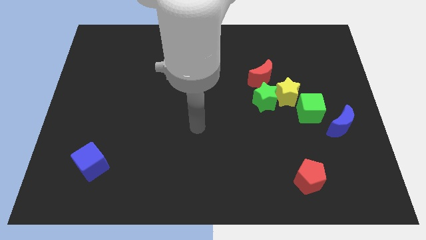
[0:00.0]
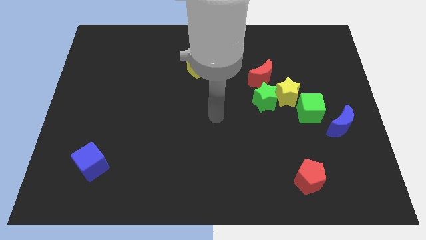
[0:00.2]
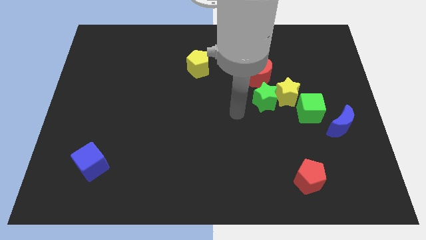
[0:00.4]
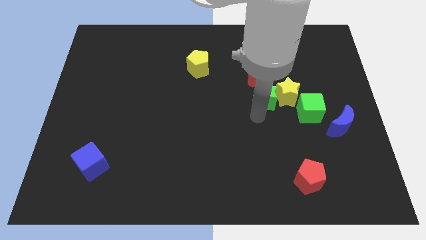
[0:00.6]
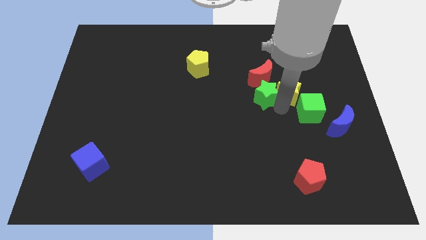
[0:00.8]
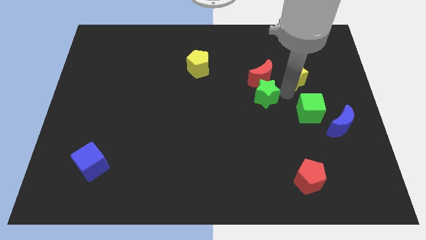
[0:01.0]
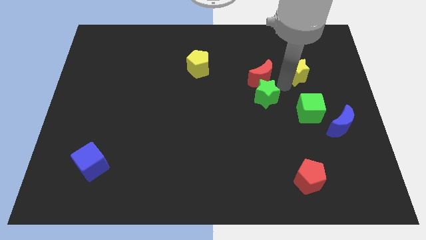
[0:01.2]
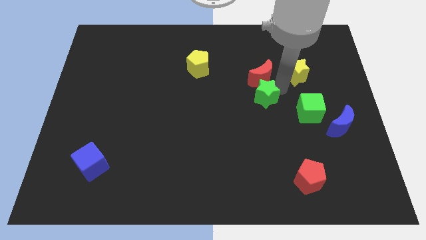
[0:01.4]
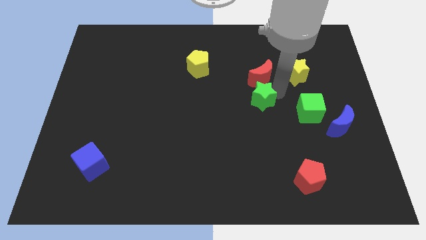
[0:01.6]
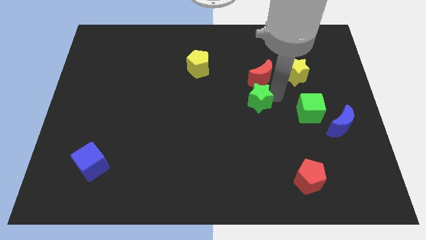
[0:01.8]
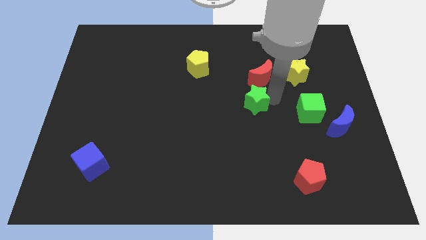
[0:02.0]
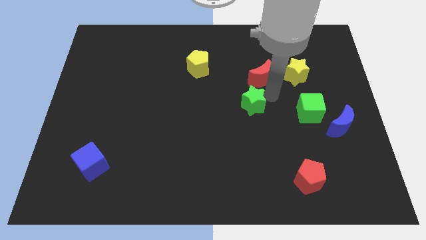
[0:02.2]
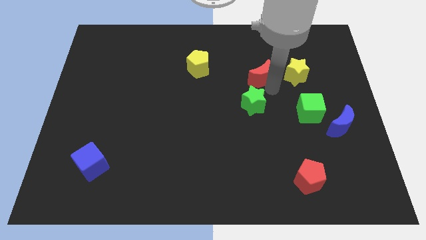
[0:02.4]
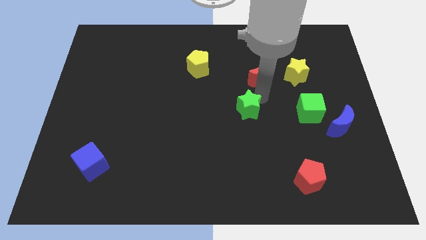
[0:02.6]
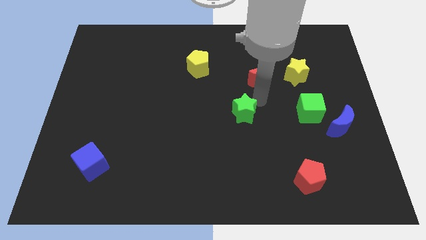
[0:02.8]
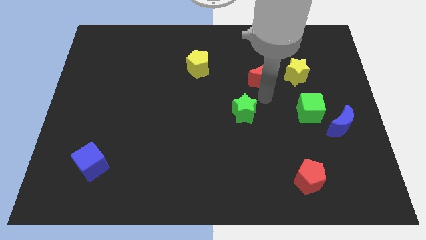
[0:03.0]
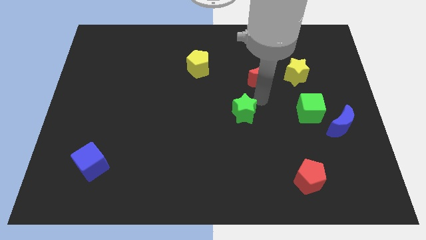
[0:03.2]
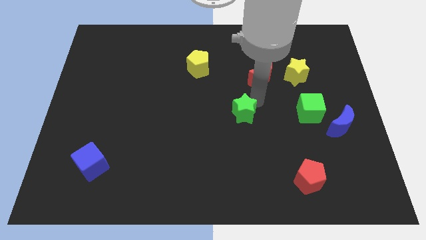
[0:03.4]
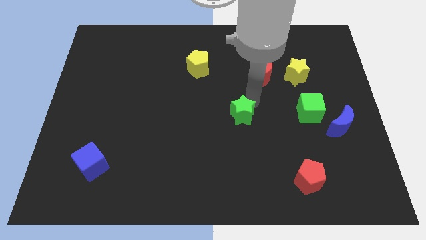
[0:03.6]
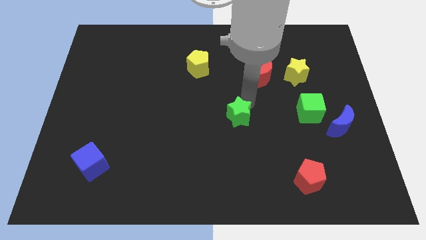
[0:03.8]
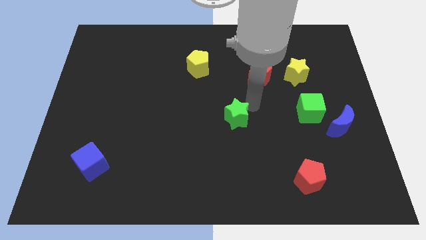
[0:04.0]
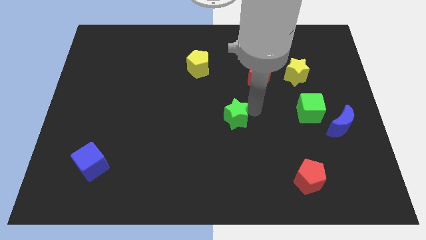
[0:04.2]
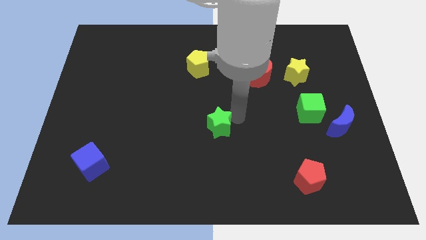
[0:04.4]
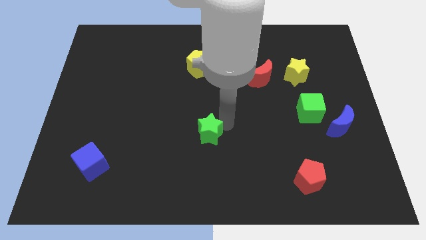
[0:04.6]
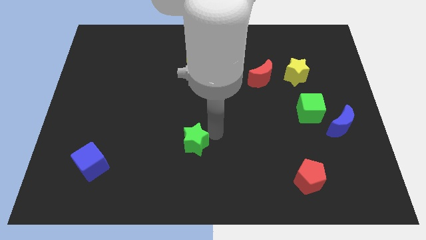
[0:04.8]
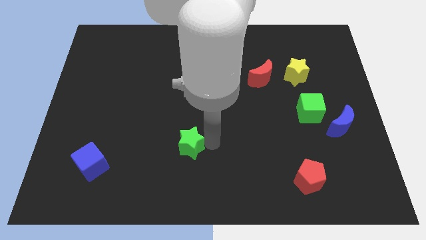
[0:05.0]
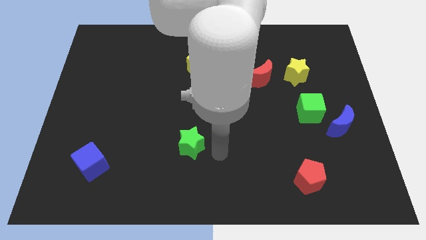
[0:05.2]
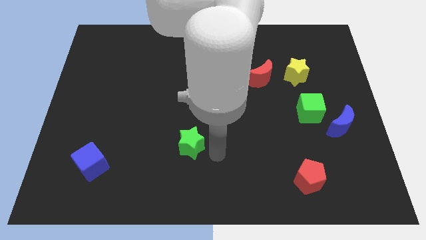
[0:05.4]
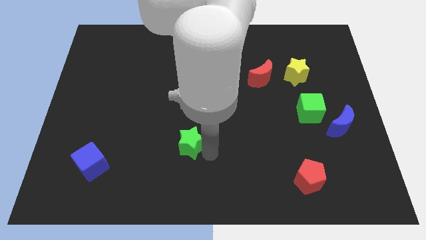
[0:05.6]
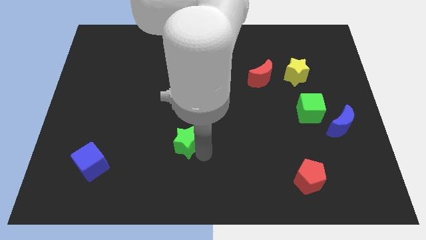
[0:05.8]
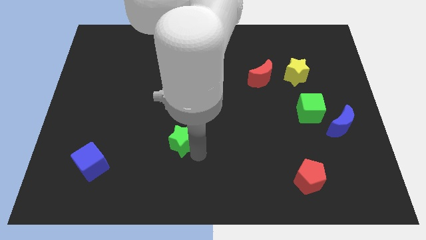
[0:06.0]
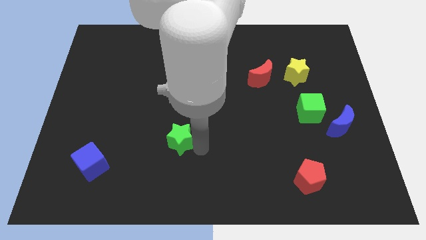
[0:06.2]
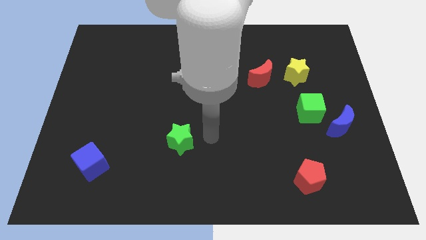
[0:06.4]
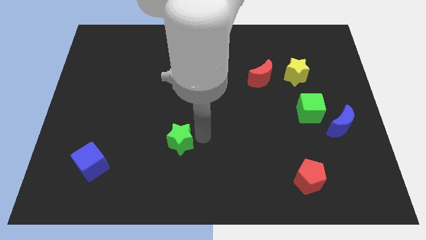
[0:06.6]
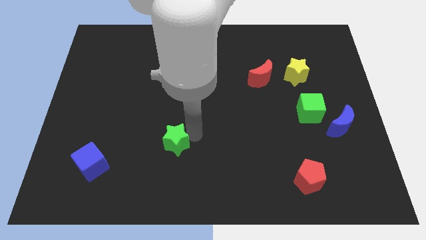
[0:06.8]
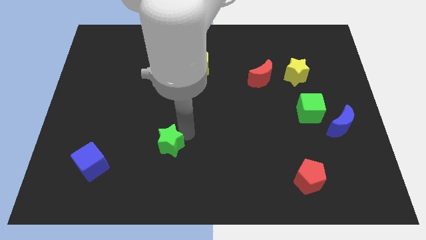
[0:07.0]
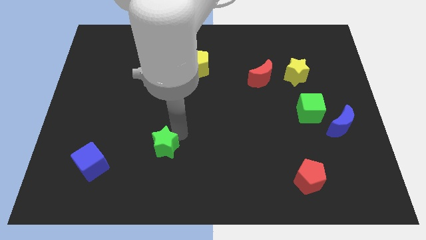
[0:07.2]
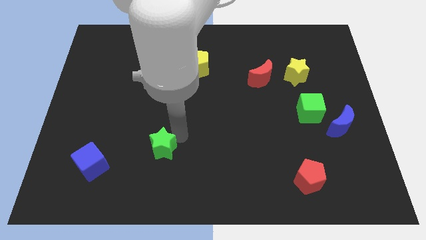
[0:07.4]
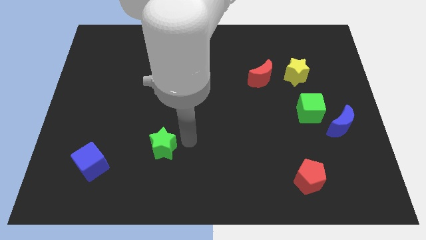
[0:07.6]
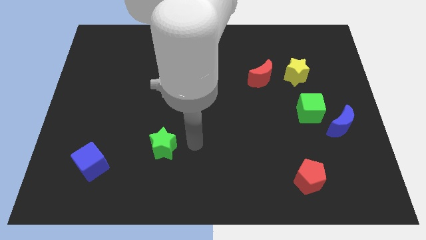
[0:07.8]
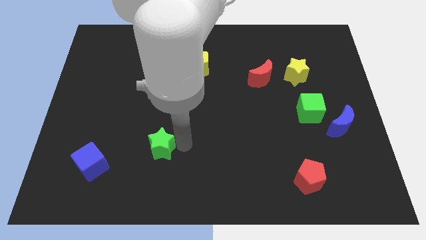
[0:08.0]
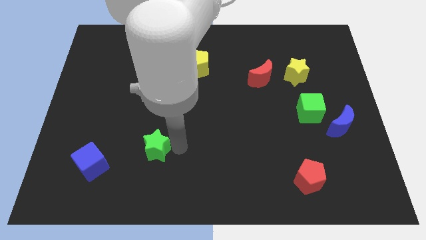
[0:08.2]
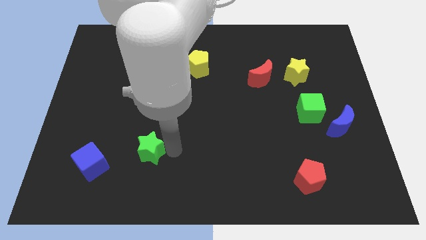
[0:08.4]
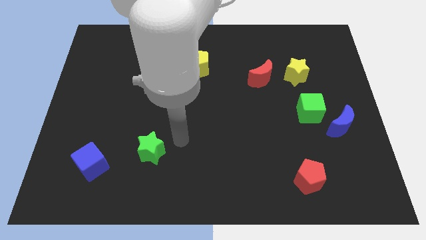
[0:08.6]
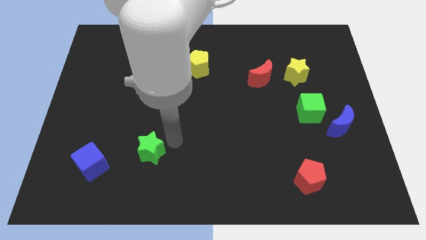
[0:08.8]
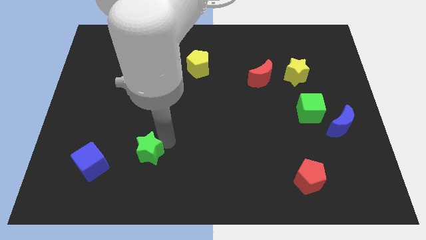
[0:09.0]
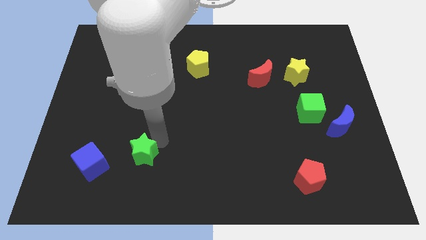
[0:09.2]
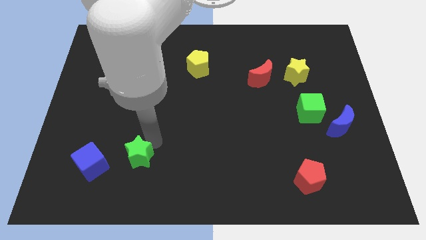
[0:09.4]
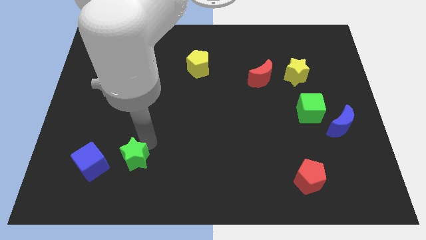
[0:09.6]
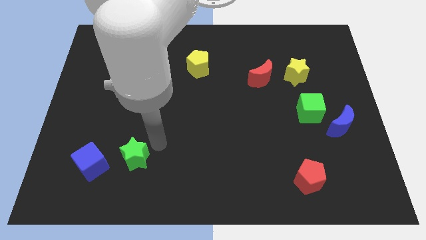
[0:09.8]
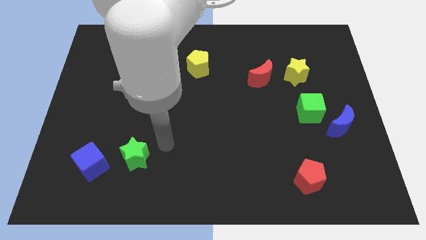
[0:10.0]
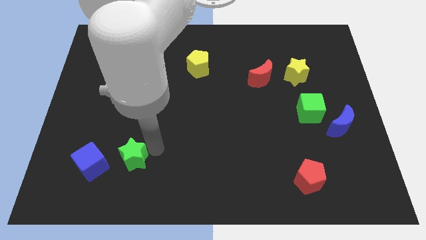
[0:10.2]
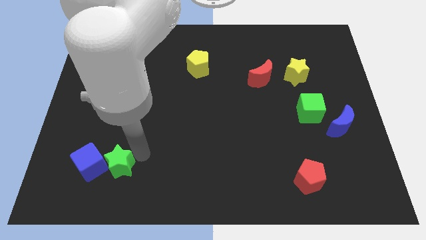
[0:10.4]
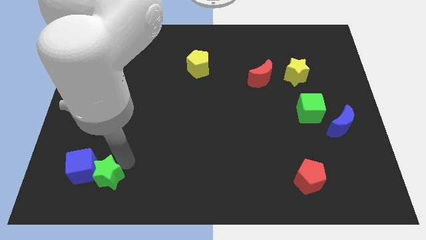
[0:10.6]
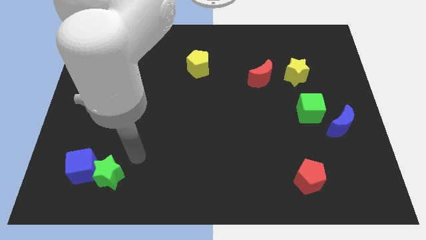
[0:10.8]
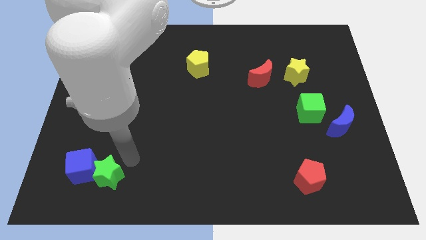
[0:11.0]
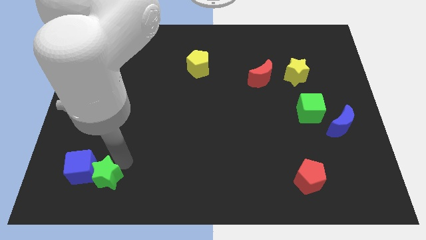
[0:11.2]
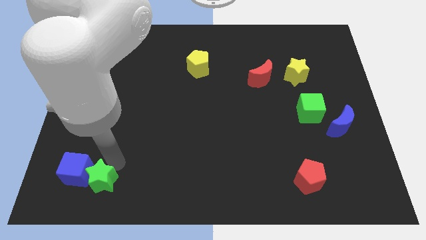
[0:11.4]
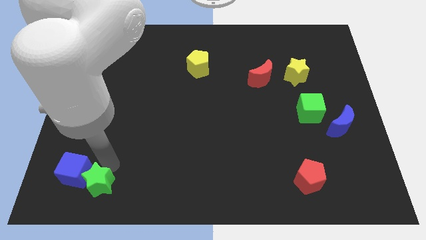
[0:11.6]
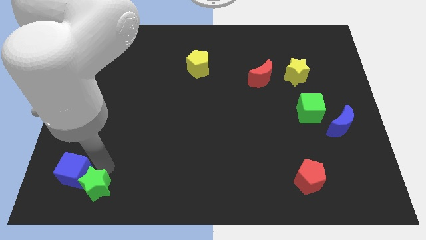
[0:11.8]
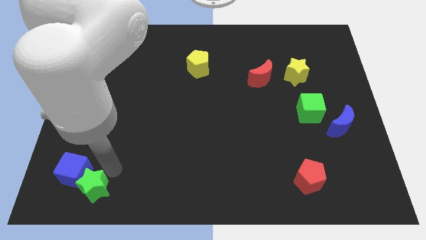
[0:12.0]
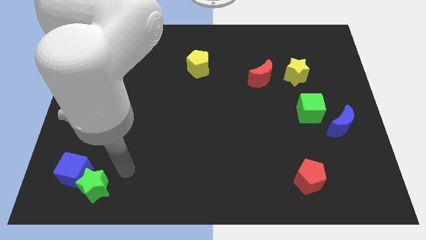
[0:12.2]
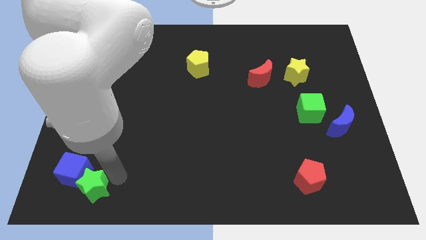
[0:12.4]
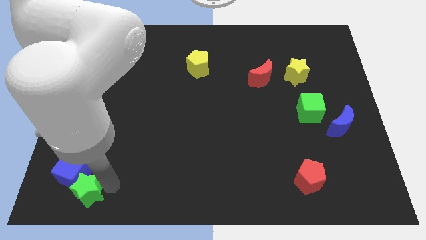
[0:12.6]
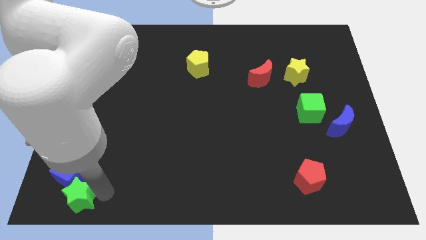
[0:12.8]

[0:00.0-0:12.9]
push the green star to the bottom left corner

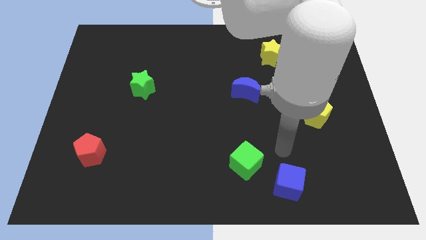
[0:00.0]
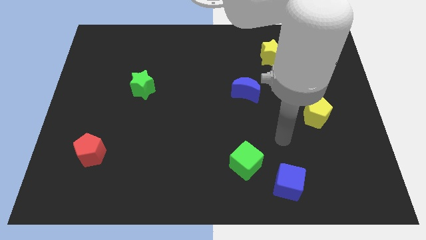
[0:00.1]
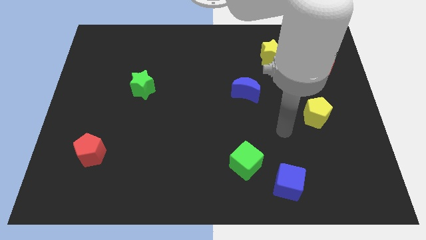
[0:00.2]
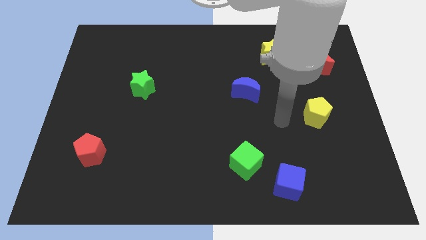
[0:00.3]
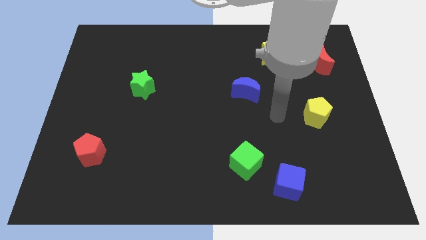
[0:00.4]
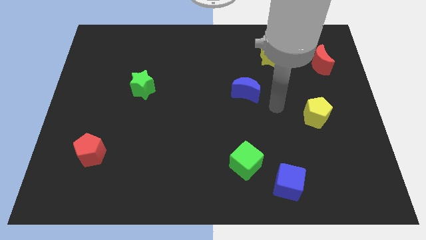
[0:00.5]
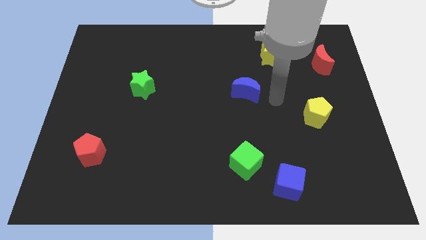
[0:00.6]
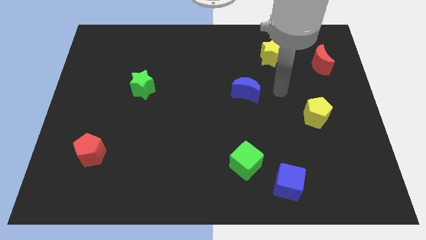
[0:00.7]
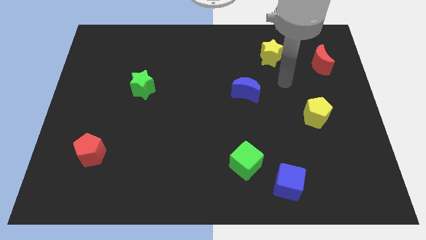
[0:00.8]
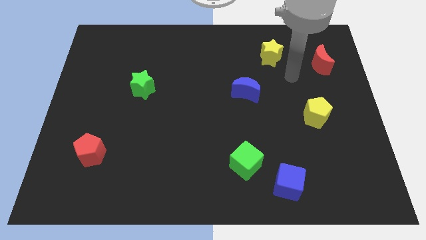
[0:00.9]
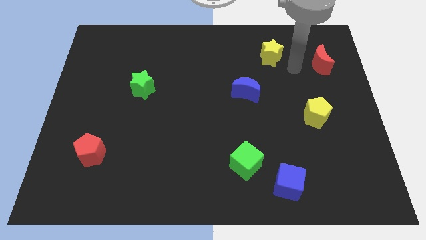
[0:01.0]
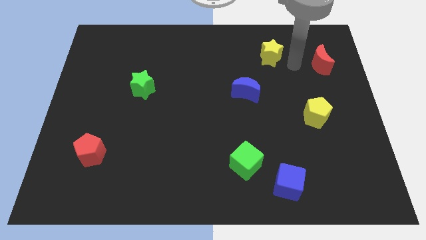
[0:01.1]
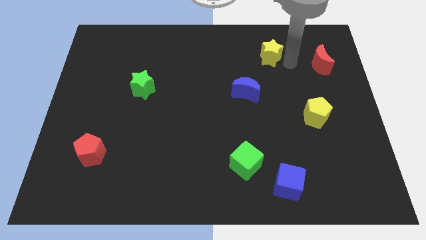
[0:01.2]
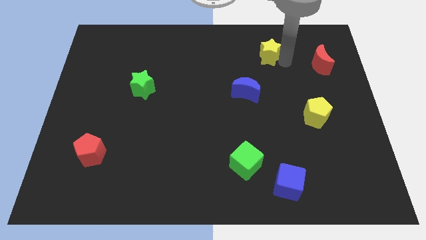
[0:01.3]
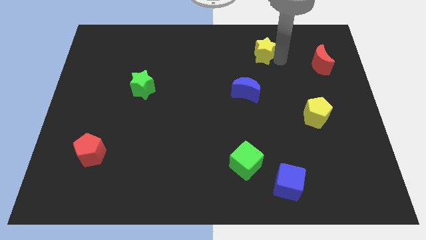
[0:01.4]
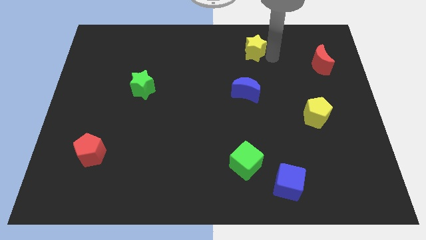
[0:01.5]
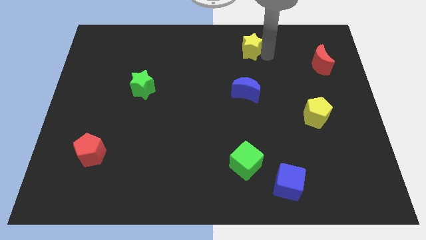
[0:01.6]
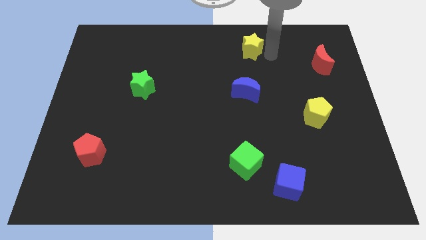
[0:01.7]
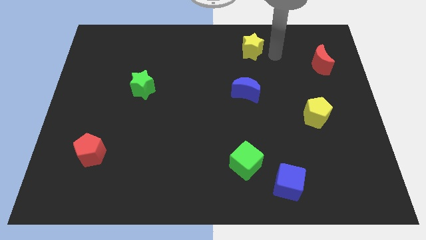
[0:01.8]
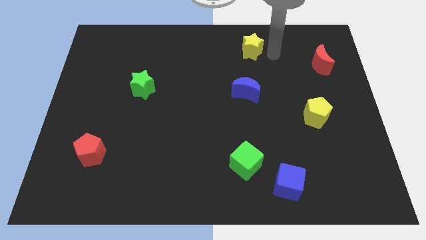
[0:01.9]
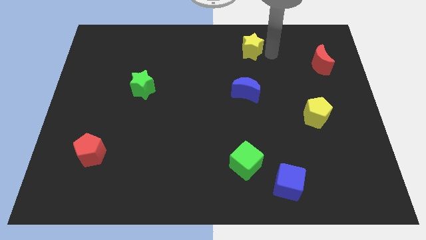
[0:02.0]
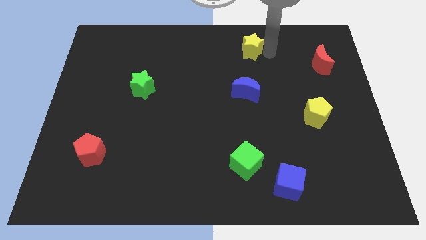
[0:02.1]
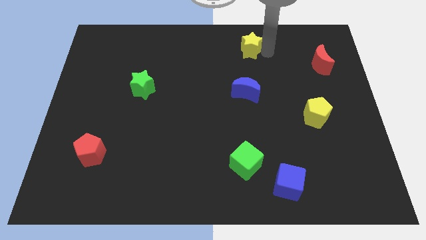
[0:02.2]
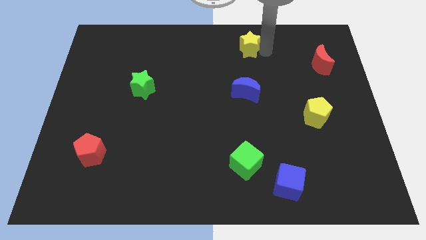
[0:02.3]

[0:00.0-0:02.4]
slide the yellow star to the top side
